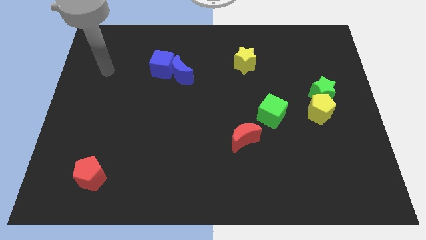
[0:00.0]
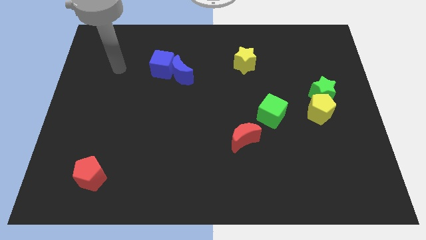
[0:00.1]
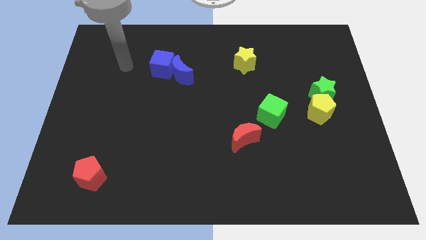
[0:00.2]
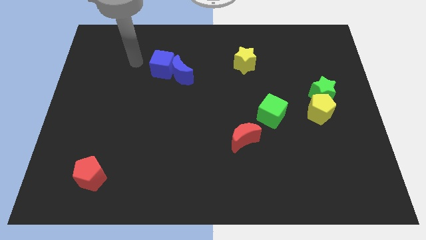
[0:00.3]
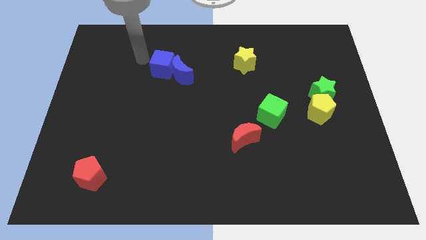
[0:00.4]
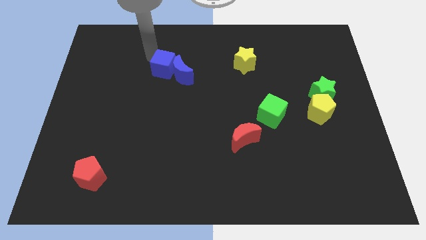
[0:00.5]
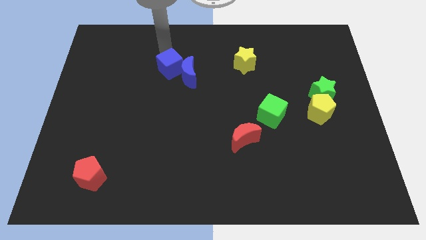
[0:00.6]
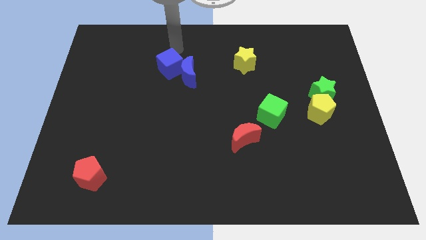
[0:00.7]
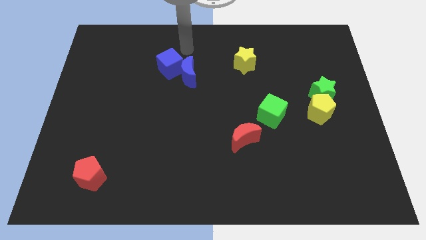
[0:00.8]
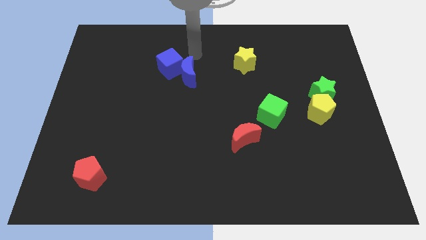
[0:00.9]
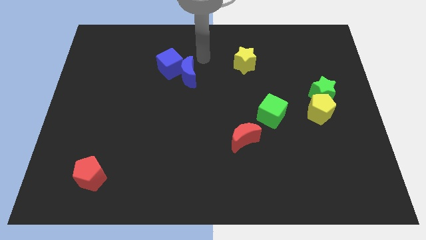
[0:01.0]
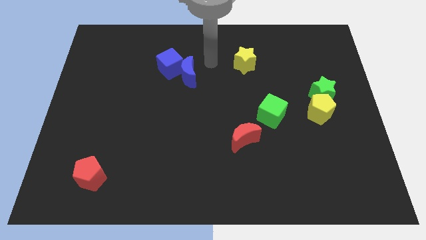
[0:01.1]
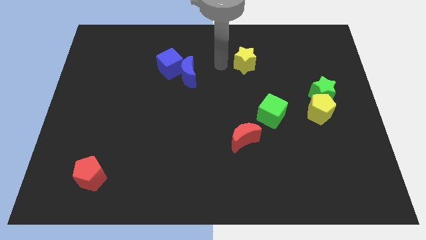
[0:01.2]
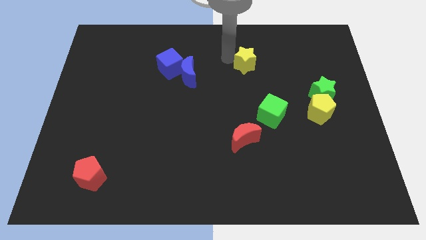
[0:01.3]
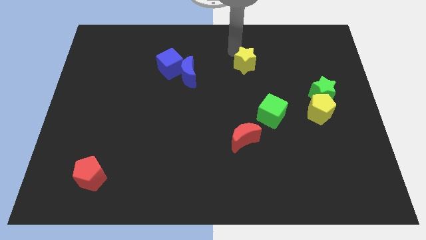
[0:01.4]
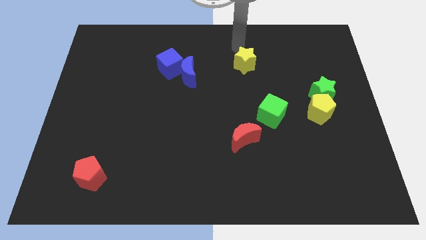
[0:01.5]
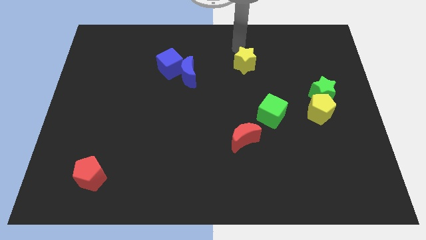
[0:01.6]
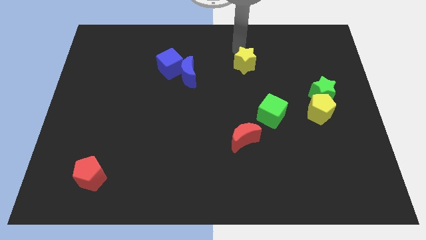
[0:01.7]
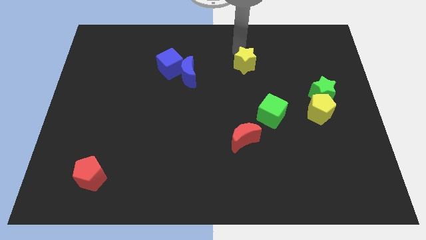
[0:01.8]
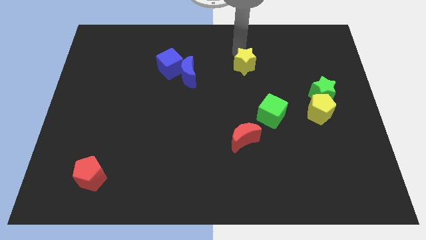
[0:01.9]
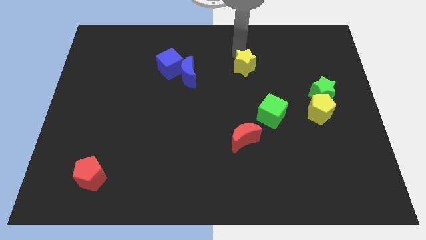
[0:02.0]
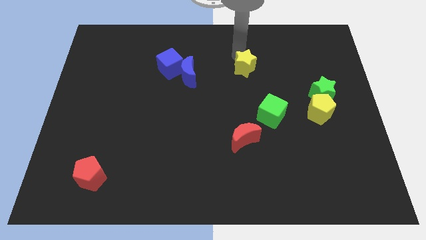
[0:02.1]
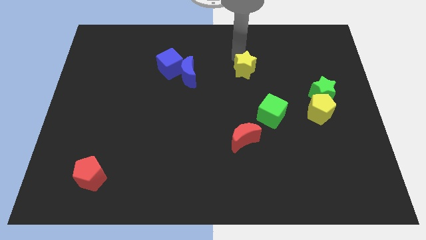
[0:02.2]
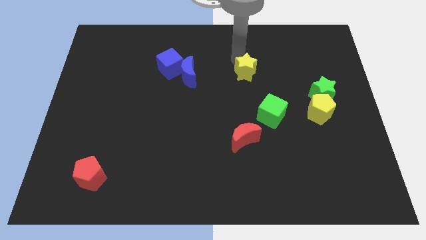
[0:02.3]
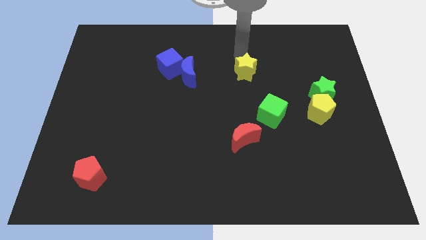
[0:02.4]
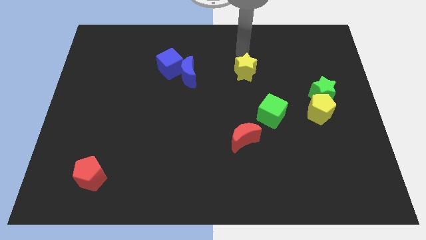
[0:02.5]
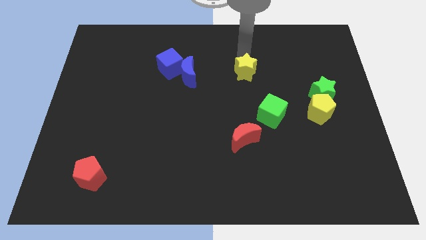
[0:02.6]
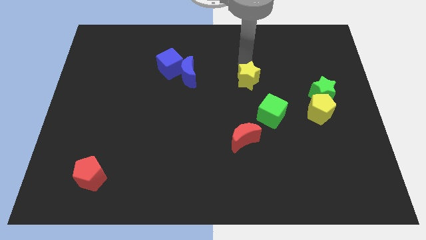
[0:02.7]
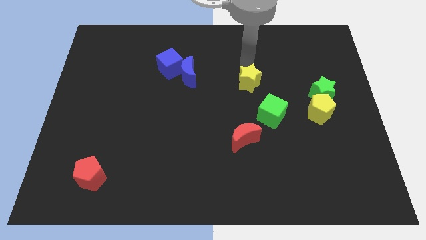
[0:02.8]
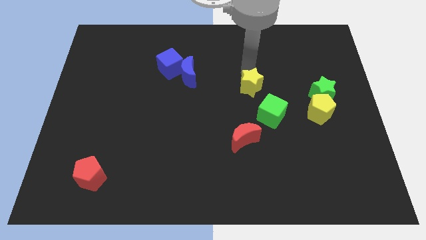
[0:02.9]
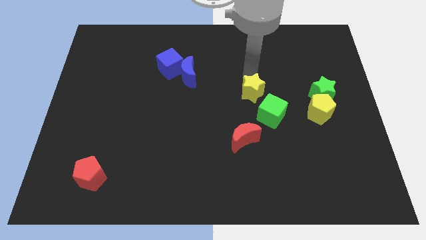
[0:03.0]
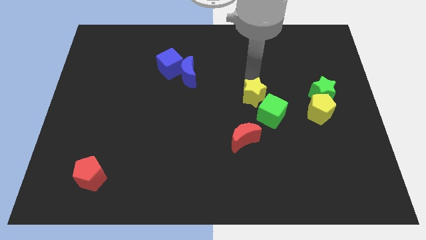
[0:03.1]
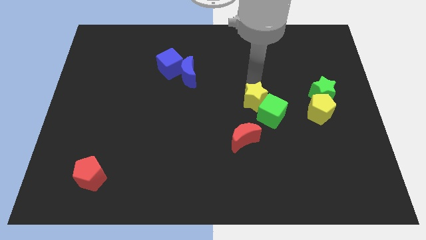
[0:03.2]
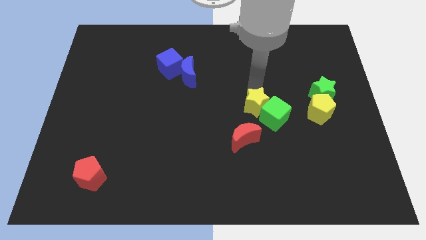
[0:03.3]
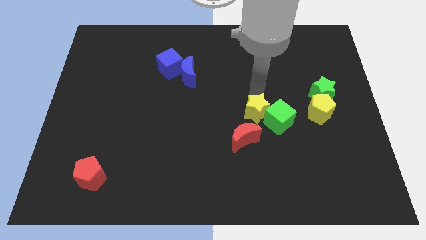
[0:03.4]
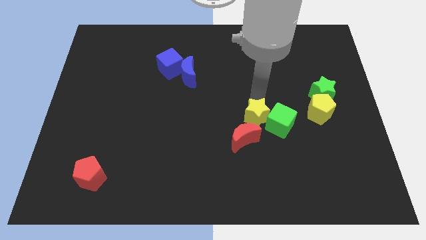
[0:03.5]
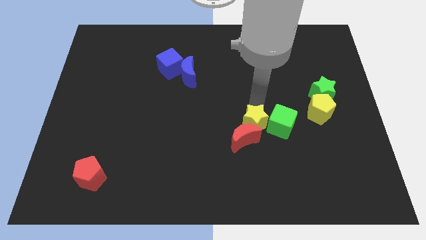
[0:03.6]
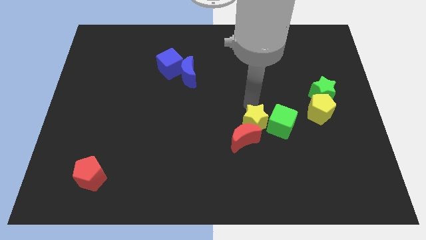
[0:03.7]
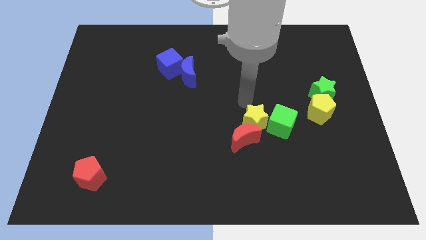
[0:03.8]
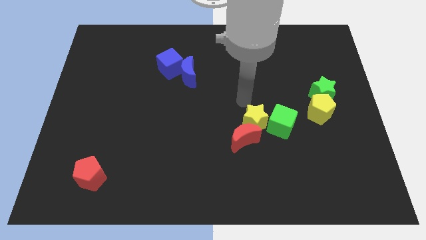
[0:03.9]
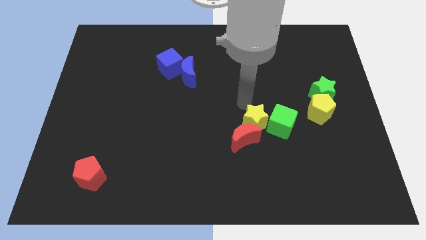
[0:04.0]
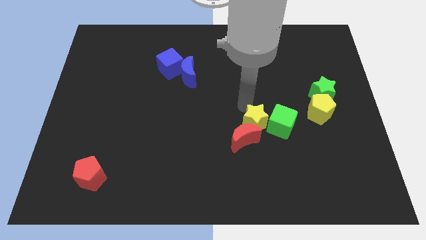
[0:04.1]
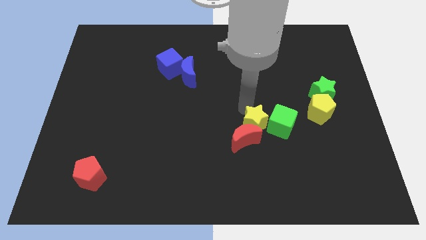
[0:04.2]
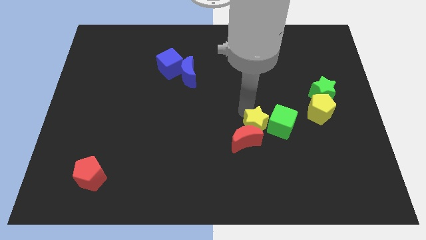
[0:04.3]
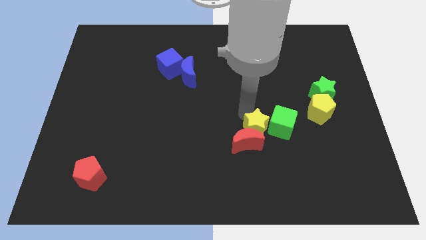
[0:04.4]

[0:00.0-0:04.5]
slide the yellow star down

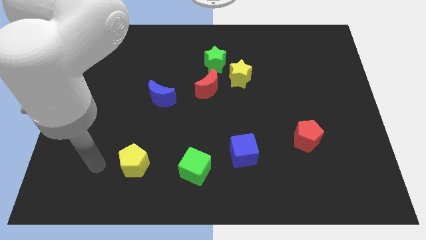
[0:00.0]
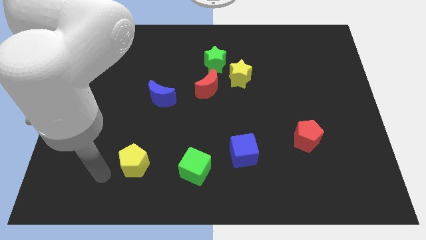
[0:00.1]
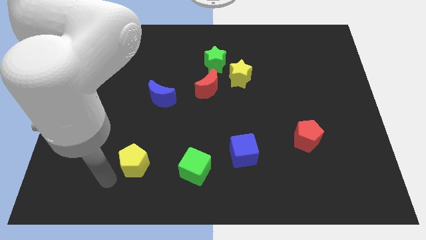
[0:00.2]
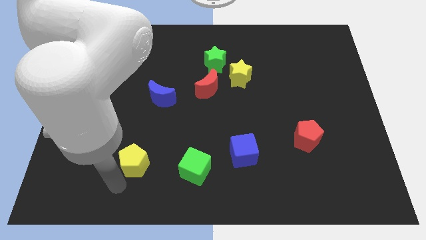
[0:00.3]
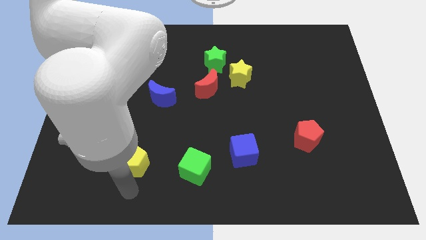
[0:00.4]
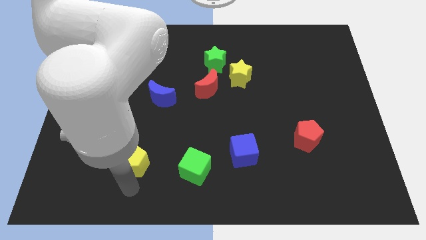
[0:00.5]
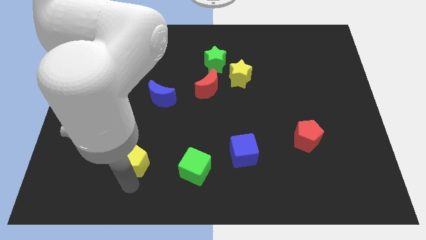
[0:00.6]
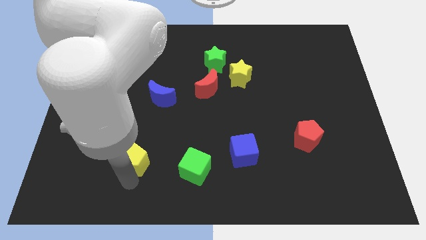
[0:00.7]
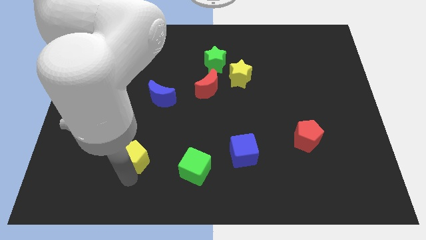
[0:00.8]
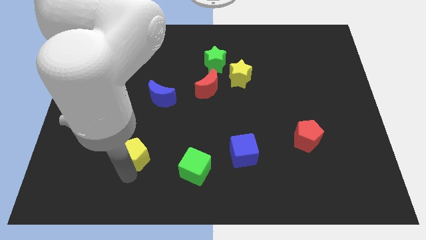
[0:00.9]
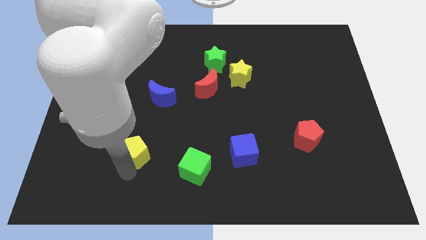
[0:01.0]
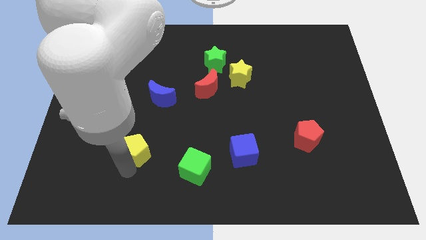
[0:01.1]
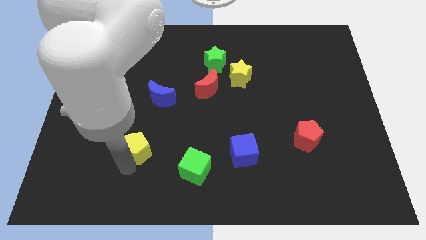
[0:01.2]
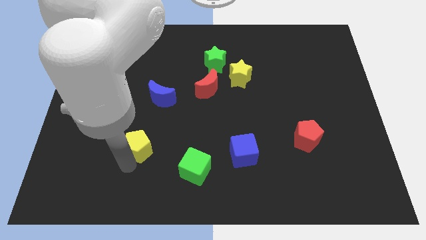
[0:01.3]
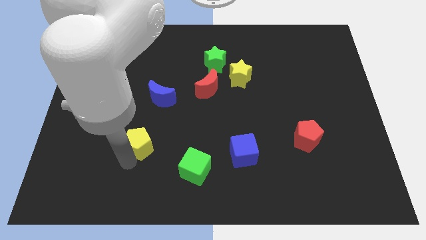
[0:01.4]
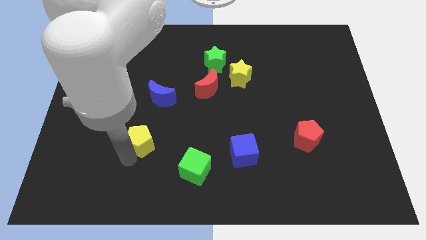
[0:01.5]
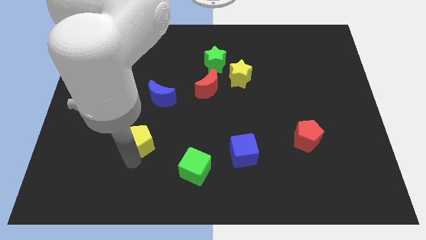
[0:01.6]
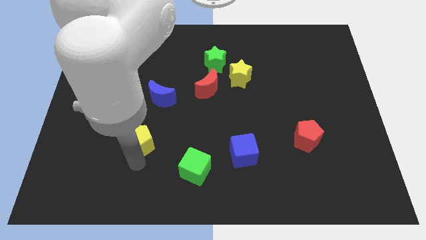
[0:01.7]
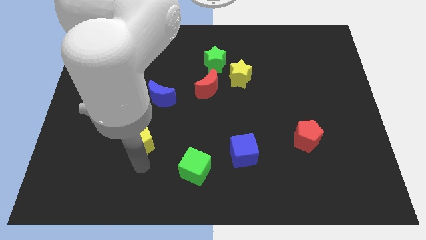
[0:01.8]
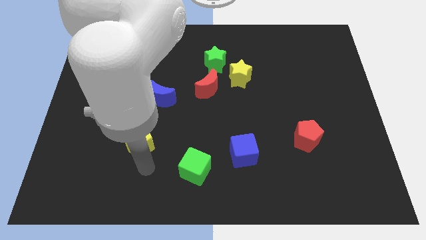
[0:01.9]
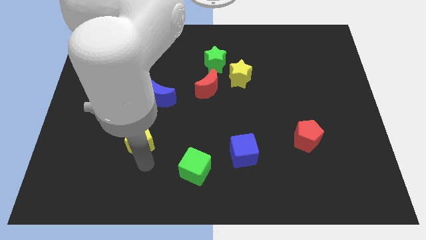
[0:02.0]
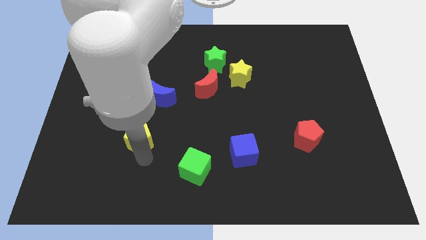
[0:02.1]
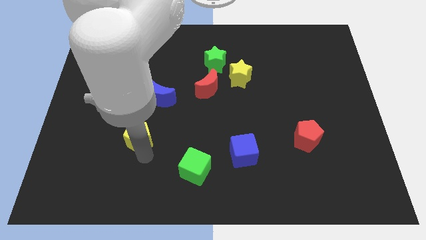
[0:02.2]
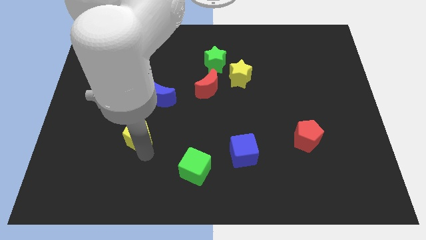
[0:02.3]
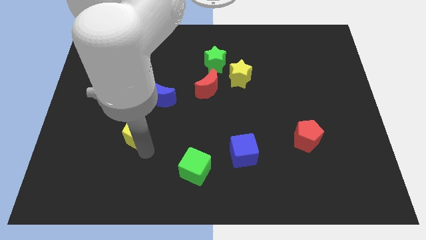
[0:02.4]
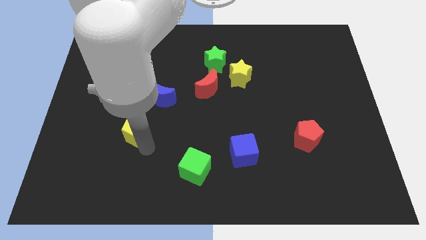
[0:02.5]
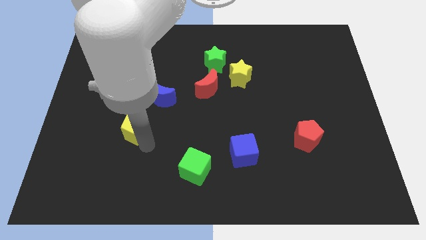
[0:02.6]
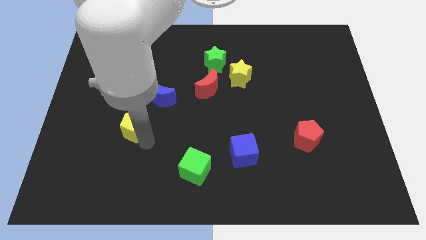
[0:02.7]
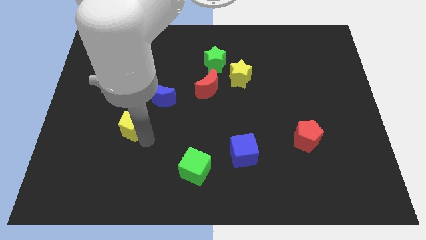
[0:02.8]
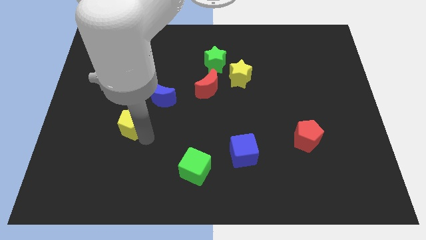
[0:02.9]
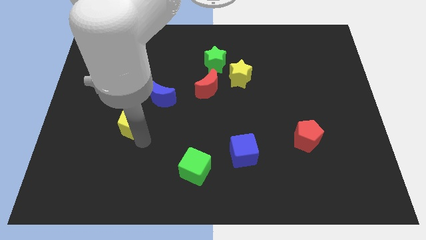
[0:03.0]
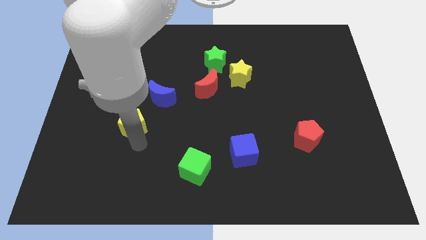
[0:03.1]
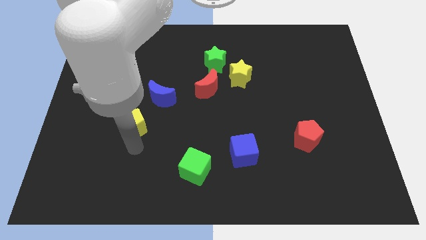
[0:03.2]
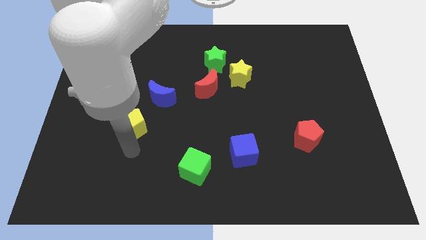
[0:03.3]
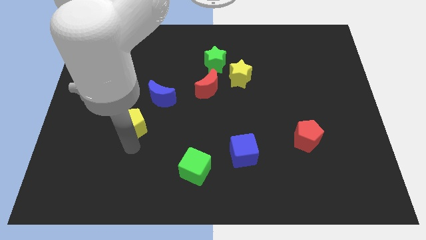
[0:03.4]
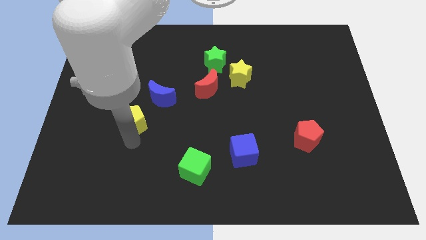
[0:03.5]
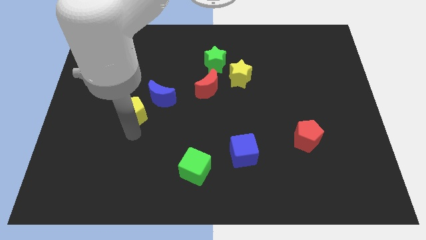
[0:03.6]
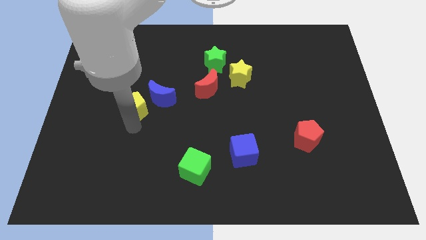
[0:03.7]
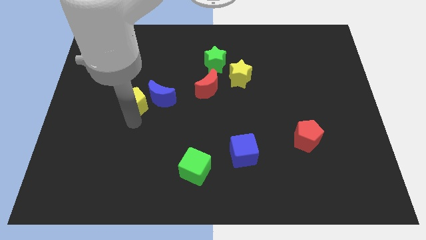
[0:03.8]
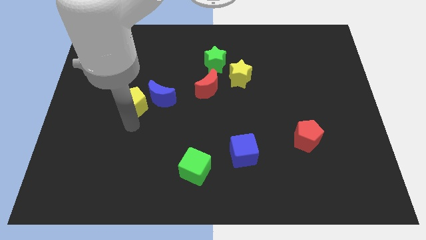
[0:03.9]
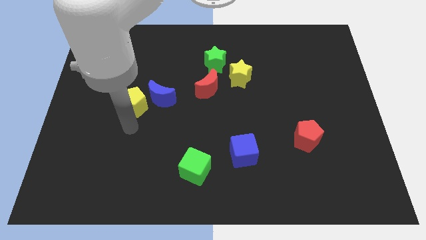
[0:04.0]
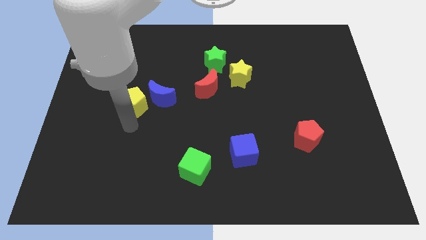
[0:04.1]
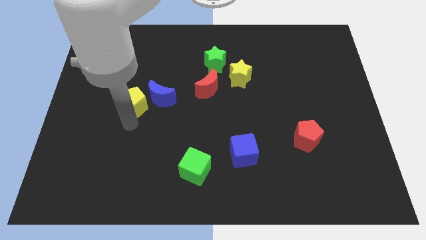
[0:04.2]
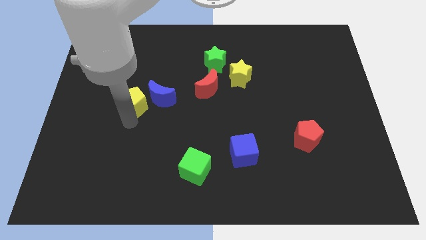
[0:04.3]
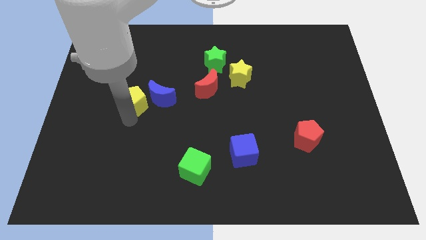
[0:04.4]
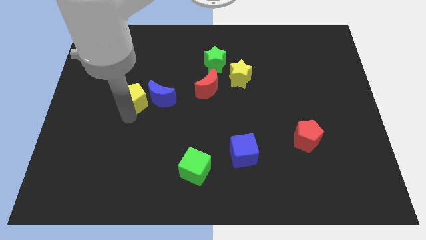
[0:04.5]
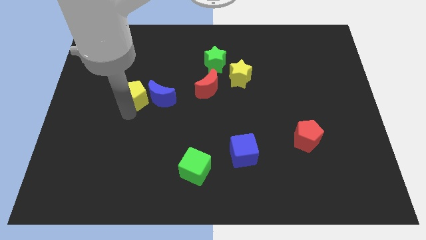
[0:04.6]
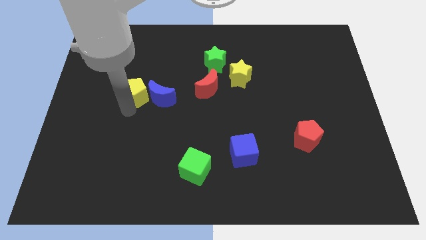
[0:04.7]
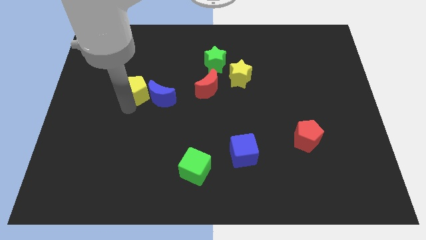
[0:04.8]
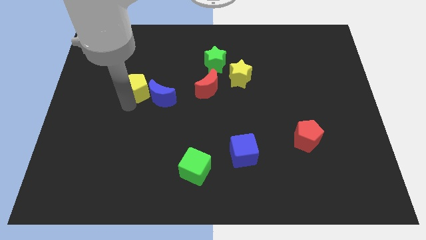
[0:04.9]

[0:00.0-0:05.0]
move the yellow pentagon up
